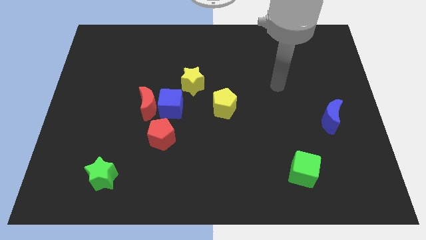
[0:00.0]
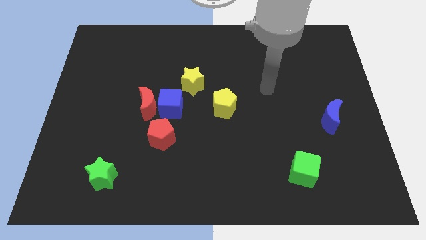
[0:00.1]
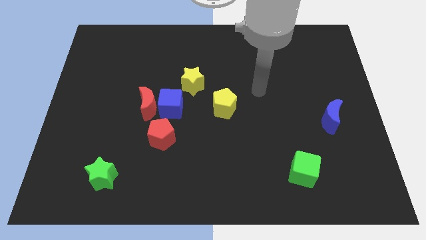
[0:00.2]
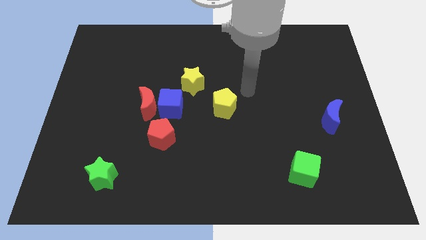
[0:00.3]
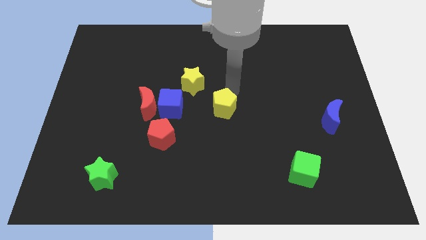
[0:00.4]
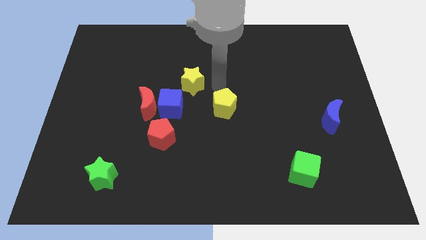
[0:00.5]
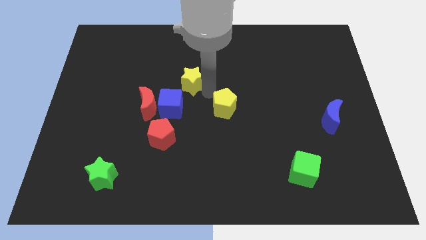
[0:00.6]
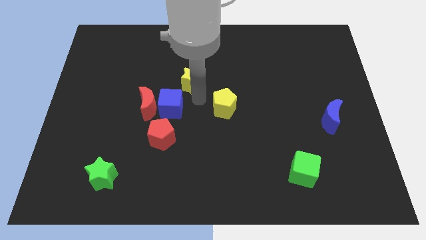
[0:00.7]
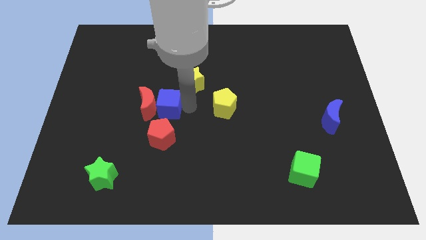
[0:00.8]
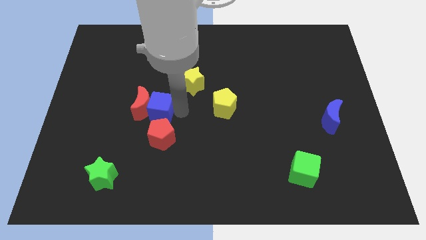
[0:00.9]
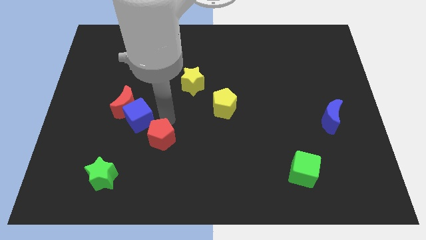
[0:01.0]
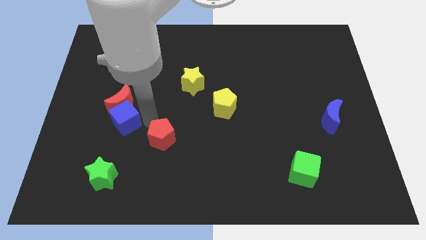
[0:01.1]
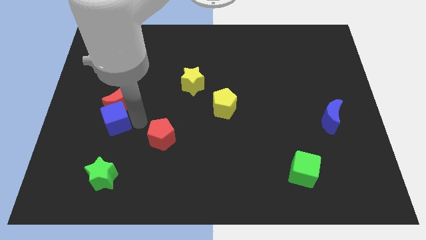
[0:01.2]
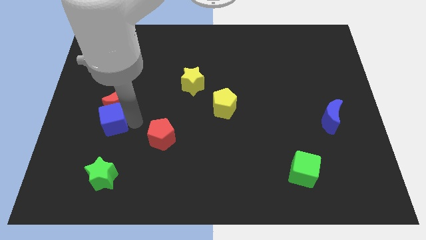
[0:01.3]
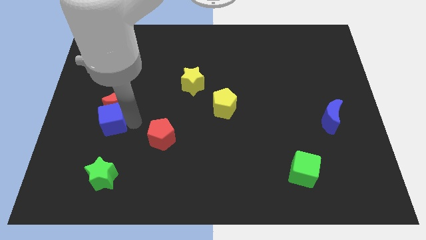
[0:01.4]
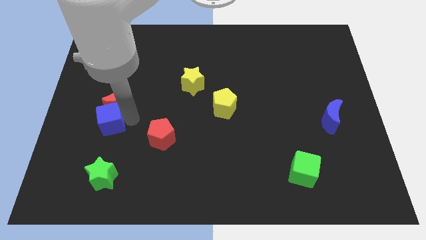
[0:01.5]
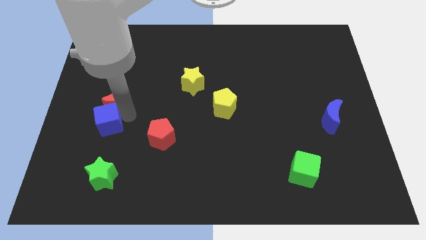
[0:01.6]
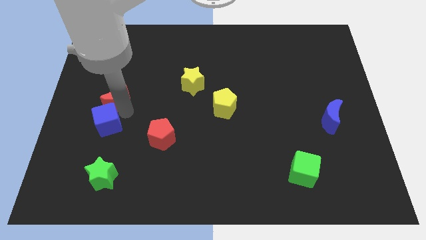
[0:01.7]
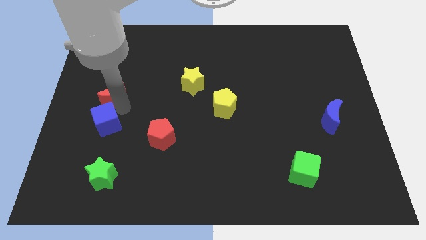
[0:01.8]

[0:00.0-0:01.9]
pull the red moon apart from the blue cube and red pentagon

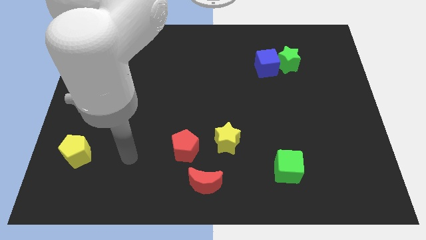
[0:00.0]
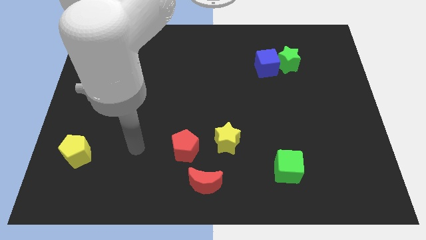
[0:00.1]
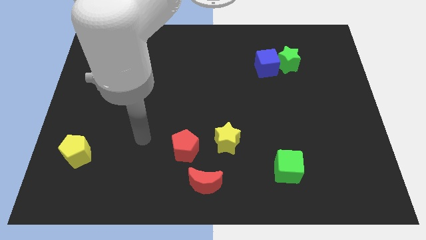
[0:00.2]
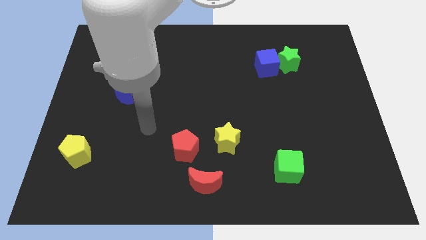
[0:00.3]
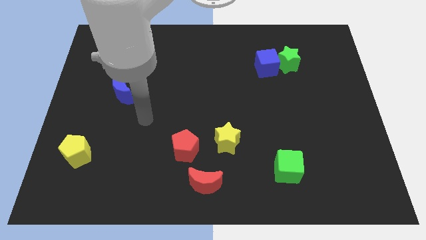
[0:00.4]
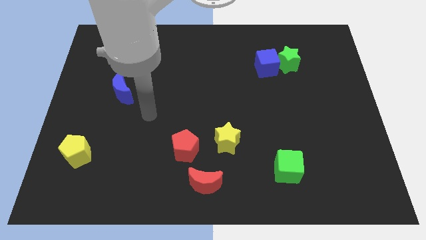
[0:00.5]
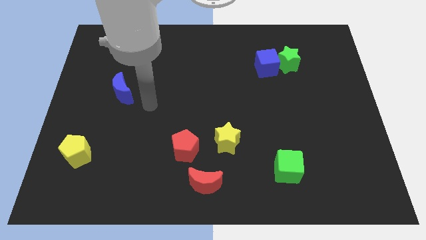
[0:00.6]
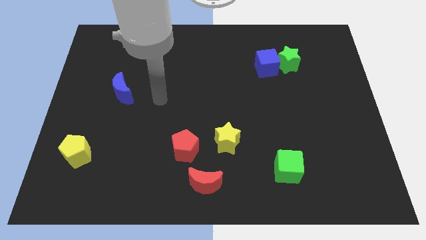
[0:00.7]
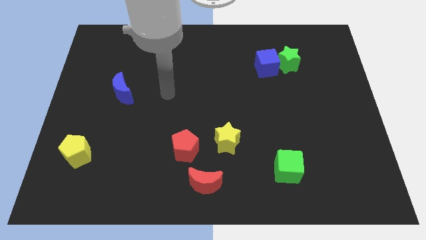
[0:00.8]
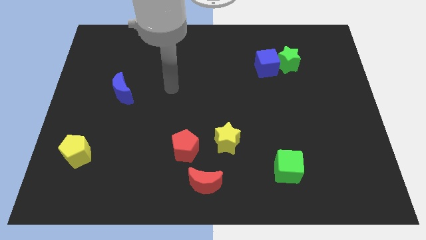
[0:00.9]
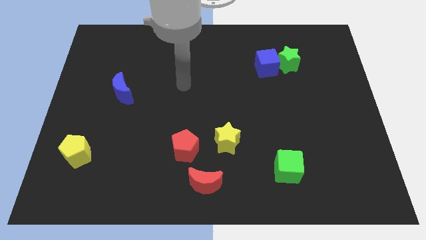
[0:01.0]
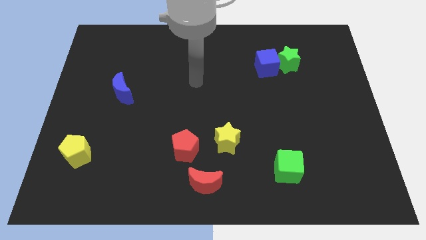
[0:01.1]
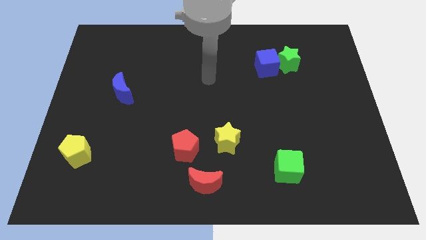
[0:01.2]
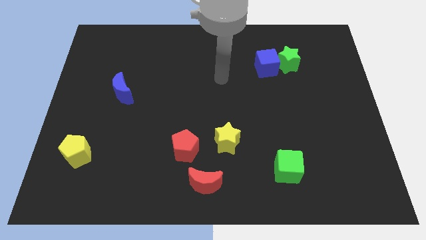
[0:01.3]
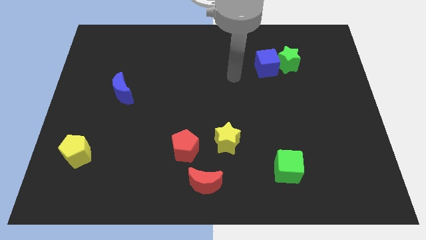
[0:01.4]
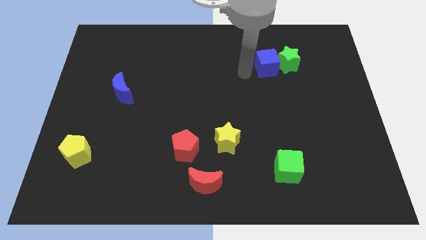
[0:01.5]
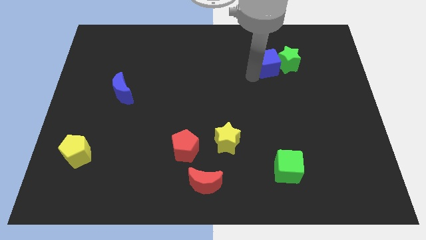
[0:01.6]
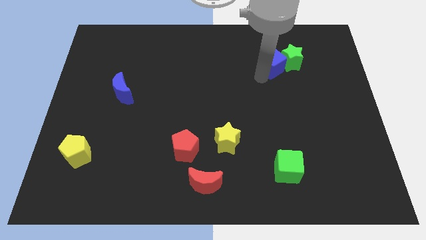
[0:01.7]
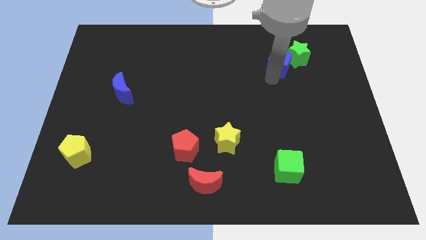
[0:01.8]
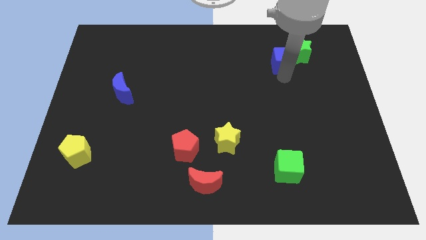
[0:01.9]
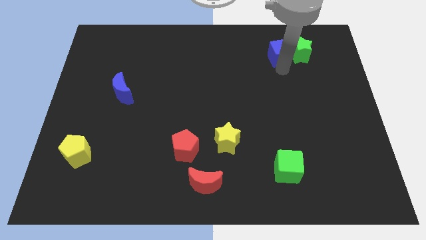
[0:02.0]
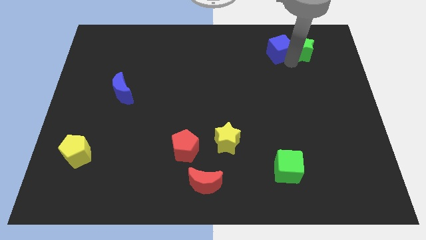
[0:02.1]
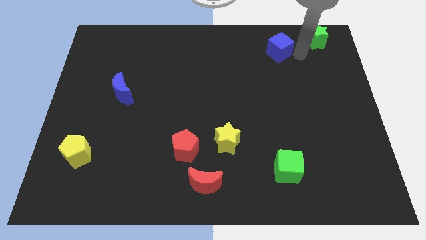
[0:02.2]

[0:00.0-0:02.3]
move the blue cube away from the green star

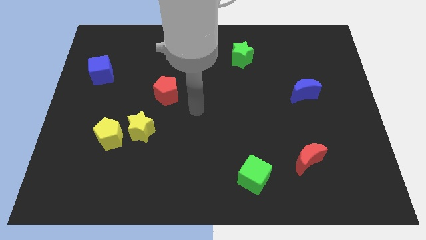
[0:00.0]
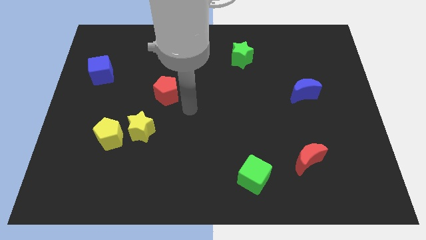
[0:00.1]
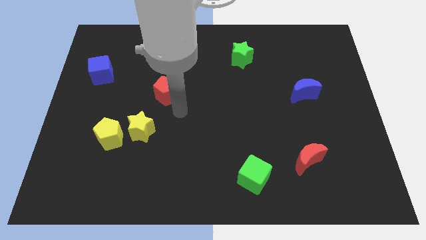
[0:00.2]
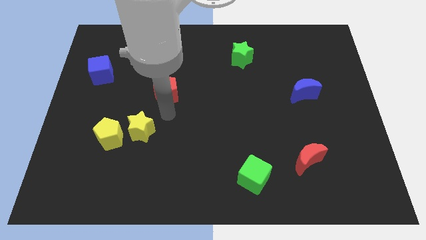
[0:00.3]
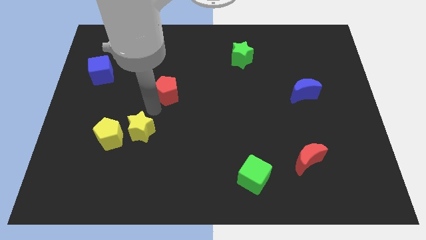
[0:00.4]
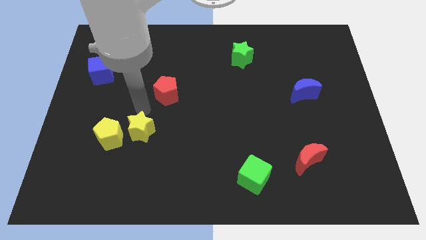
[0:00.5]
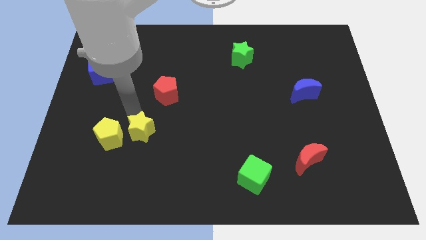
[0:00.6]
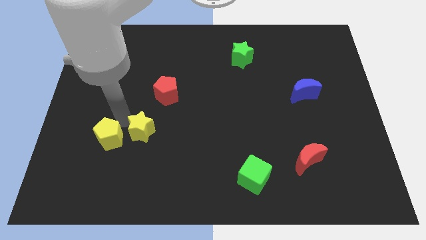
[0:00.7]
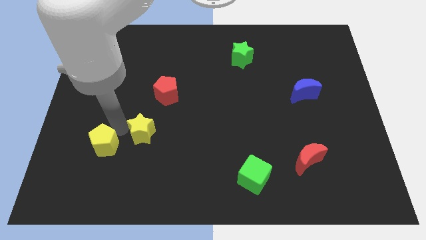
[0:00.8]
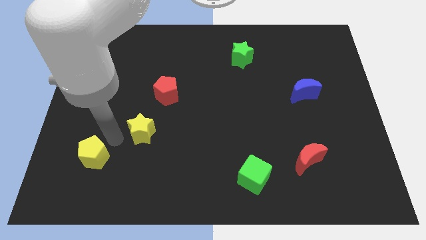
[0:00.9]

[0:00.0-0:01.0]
separate the yellow star from the yellow pentagon

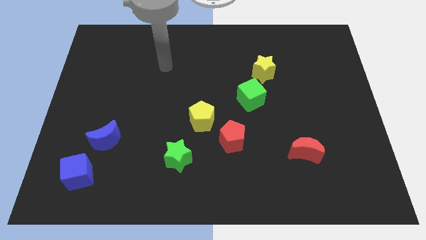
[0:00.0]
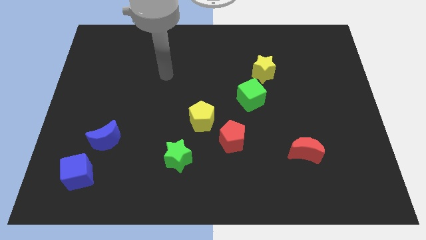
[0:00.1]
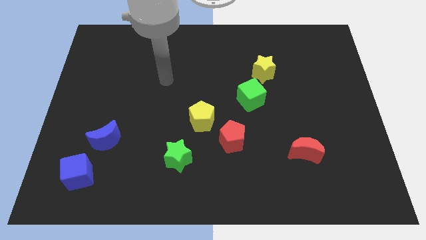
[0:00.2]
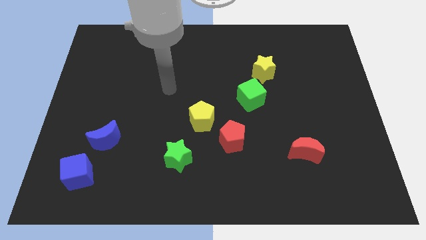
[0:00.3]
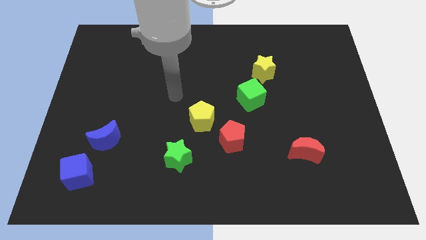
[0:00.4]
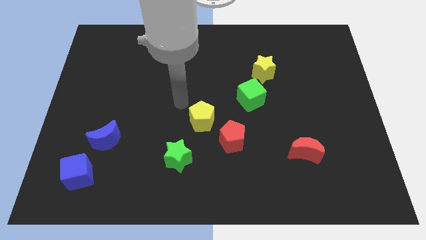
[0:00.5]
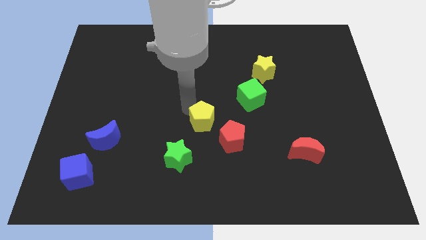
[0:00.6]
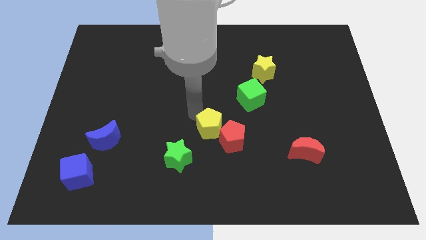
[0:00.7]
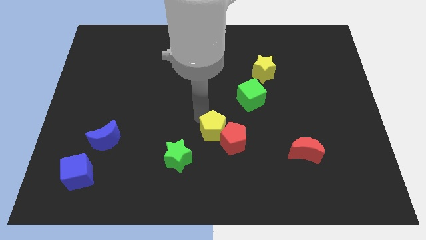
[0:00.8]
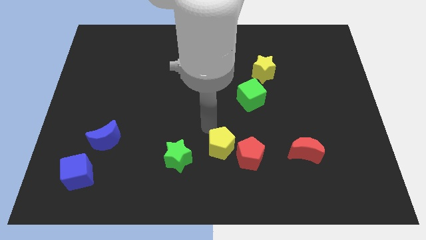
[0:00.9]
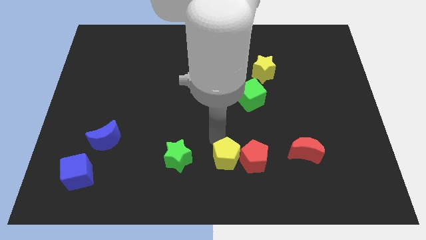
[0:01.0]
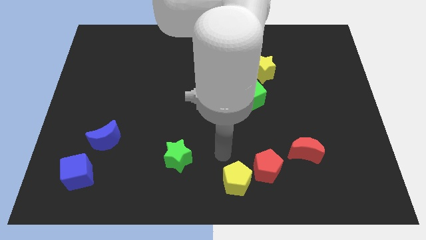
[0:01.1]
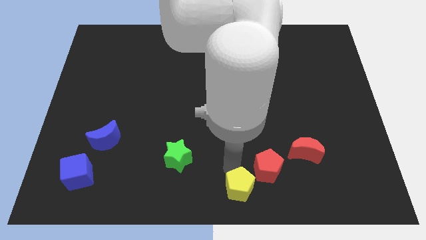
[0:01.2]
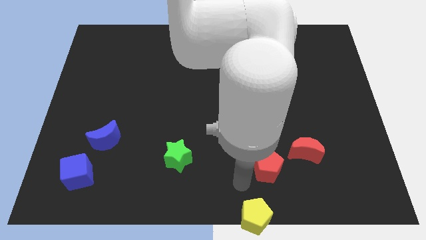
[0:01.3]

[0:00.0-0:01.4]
move the red pentagon away from the yellow pentagon

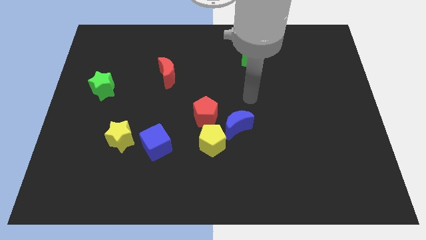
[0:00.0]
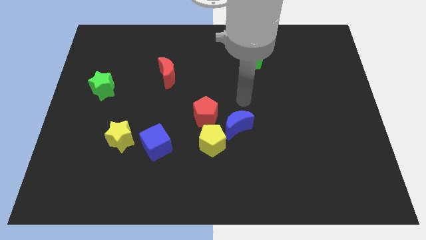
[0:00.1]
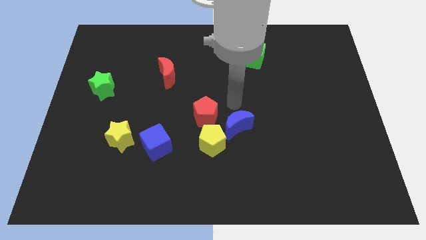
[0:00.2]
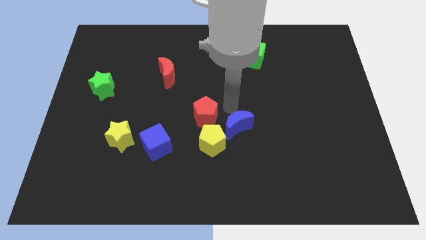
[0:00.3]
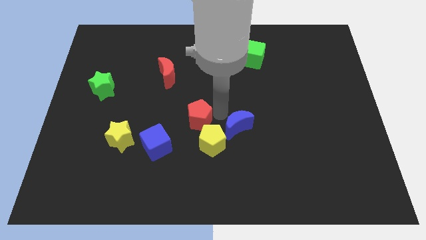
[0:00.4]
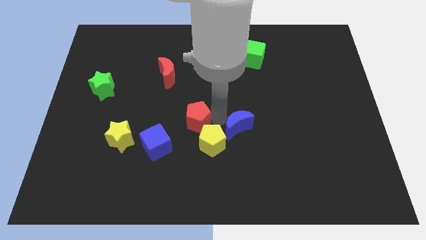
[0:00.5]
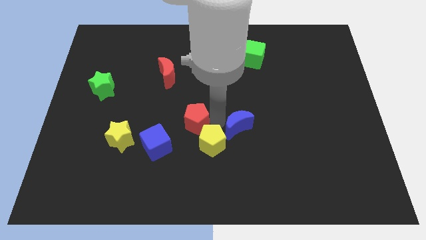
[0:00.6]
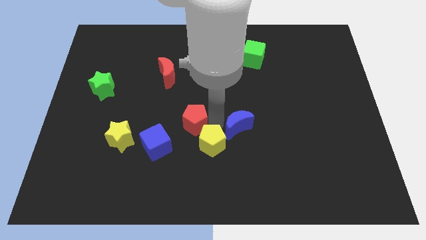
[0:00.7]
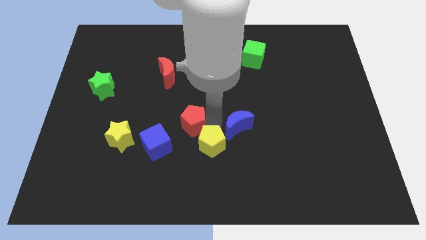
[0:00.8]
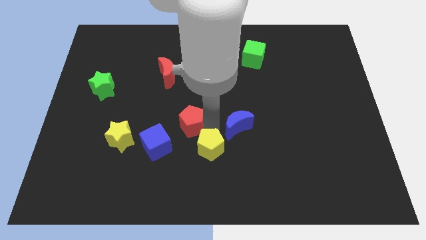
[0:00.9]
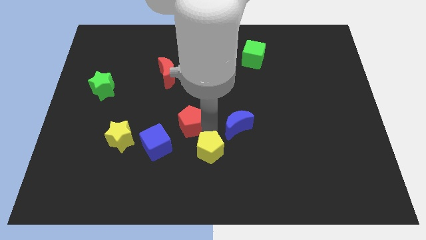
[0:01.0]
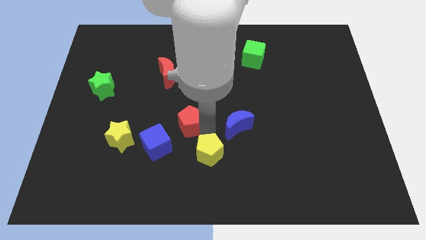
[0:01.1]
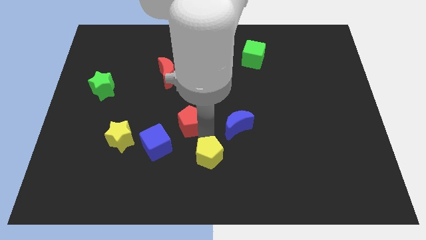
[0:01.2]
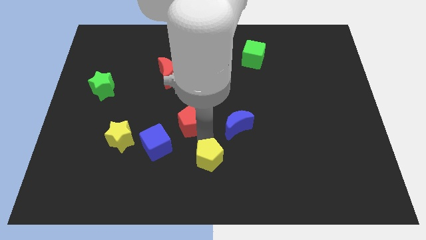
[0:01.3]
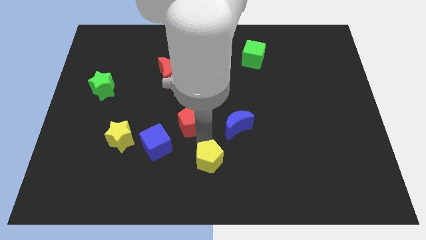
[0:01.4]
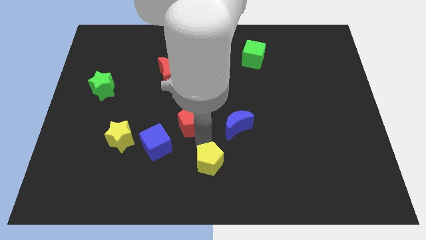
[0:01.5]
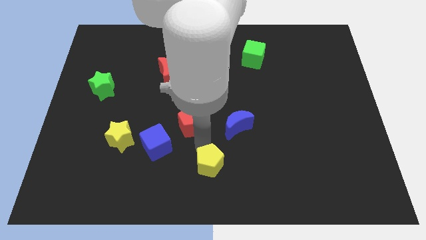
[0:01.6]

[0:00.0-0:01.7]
pull the yellow pentagon apart from the blue moon and red pentagon

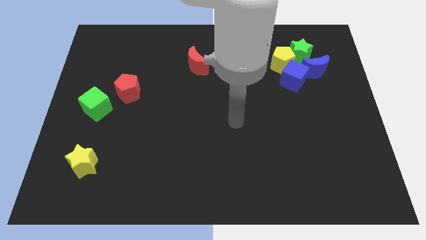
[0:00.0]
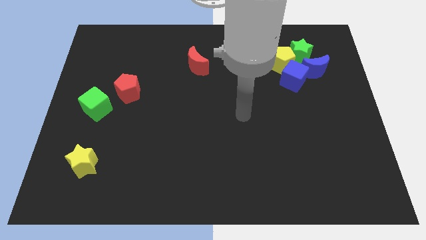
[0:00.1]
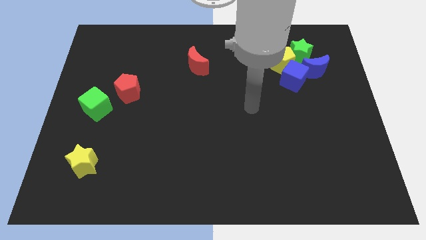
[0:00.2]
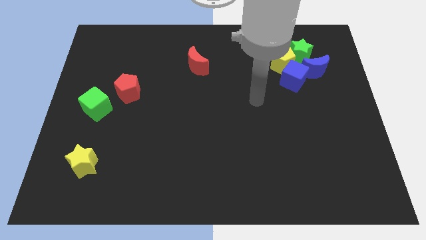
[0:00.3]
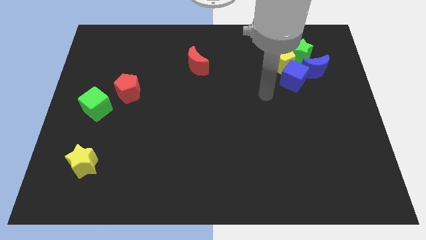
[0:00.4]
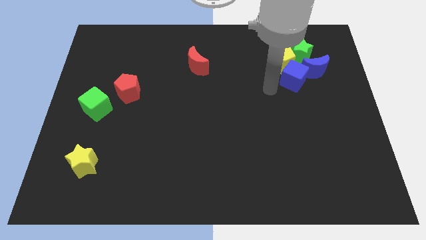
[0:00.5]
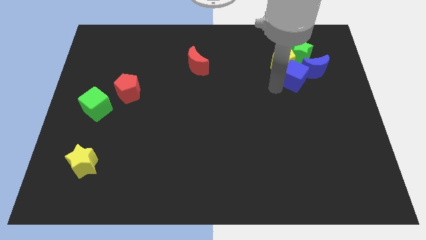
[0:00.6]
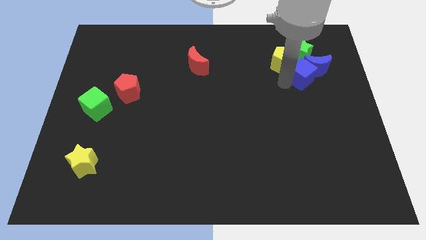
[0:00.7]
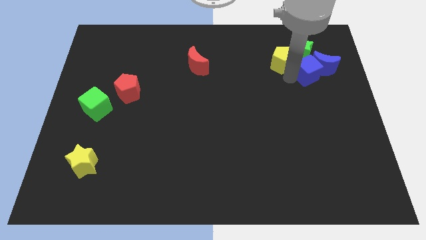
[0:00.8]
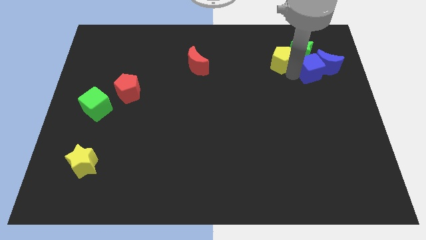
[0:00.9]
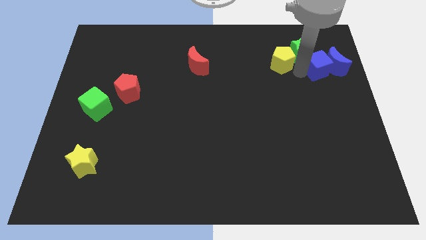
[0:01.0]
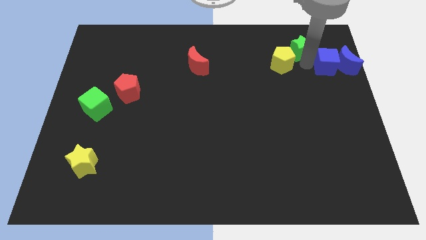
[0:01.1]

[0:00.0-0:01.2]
move the yellow pentagon away from the green star, blue cube, and blue moon
